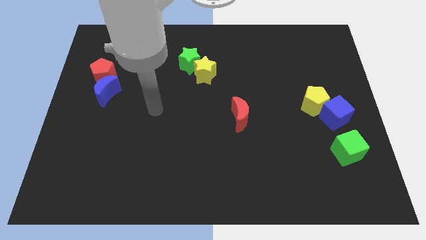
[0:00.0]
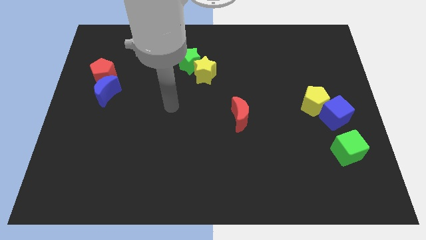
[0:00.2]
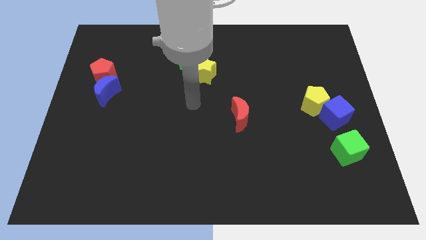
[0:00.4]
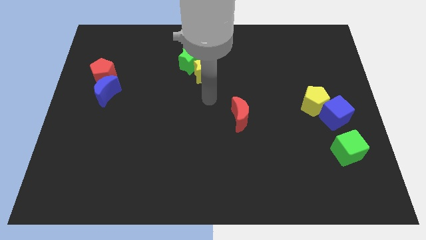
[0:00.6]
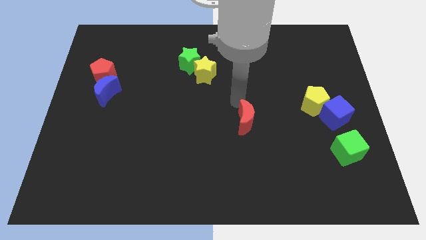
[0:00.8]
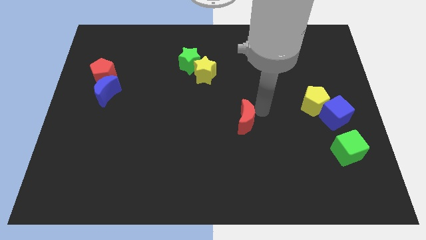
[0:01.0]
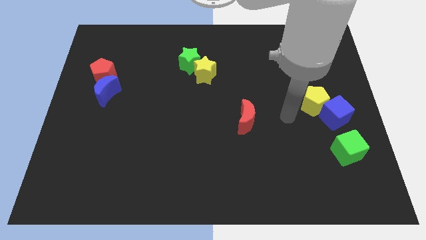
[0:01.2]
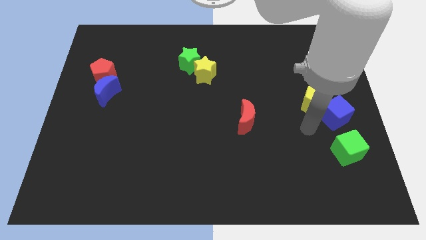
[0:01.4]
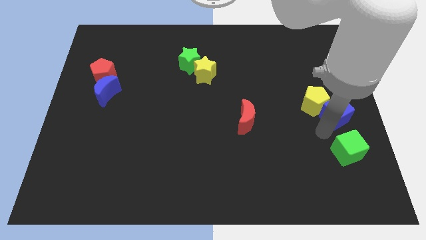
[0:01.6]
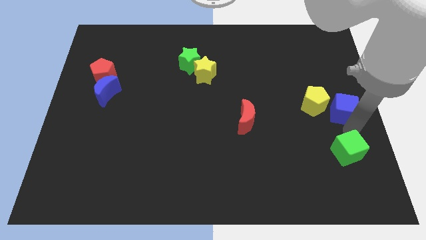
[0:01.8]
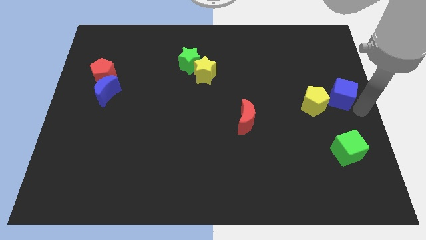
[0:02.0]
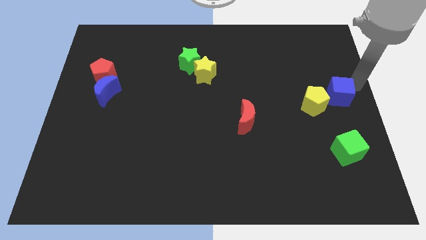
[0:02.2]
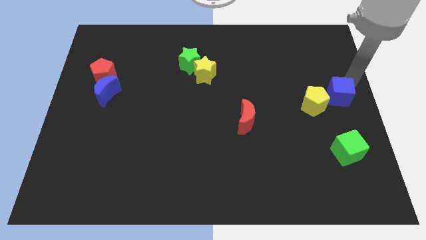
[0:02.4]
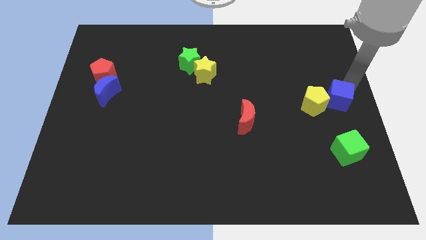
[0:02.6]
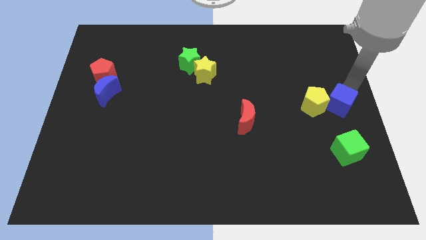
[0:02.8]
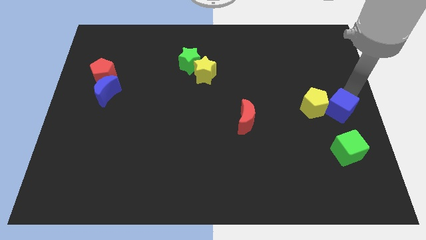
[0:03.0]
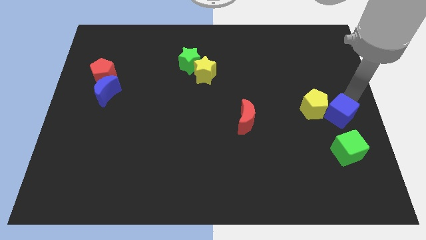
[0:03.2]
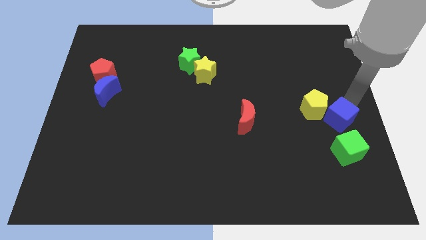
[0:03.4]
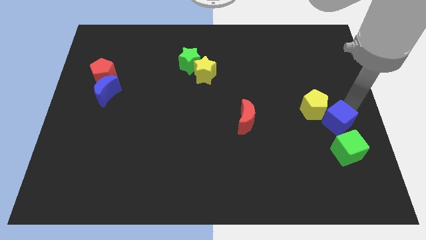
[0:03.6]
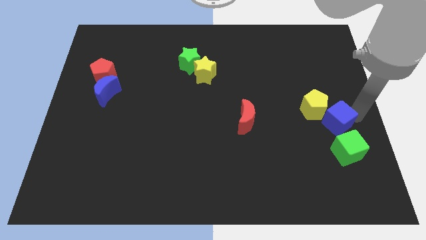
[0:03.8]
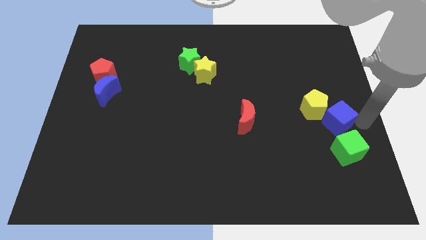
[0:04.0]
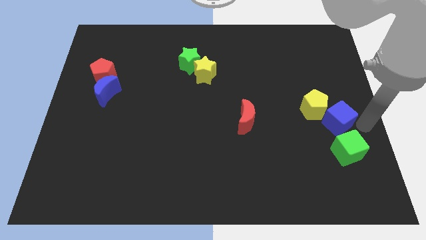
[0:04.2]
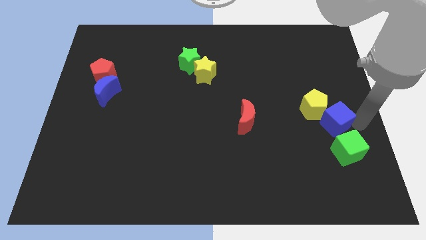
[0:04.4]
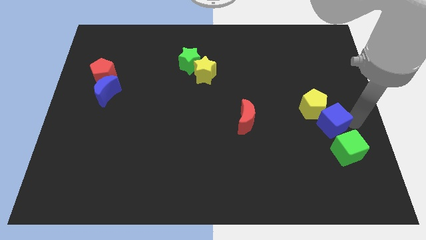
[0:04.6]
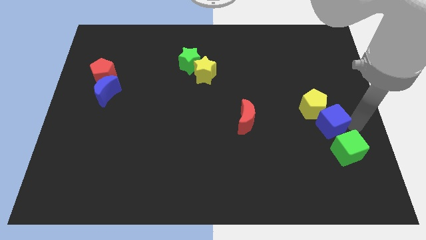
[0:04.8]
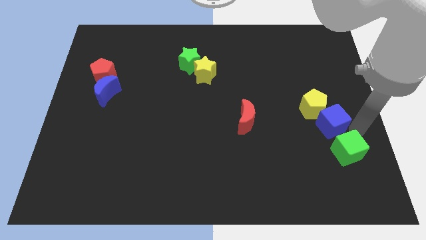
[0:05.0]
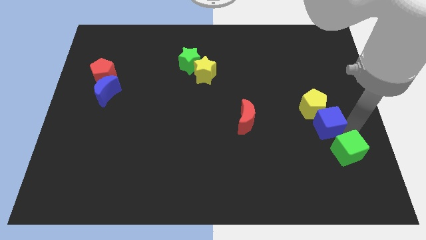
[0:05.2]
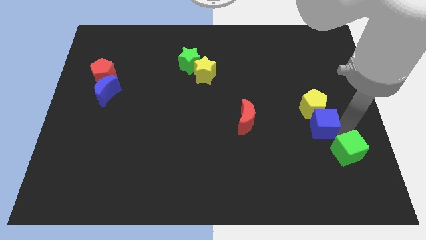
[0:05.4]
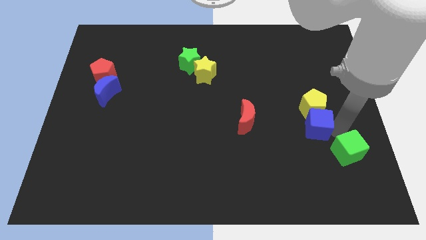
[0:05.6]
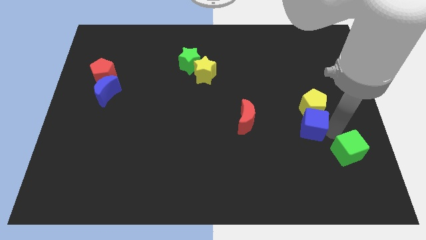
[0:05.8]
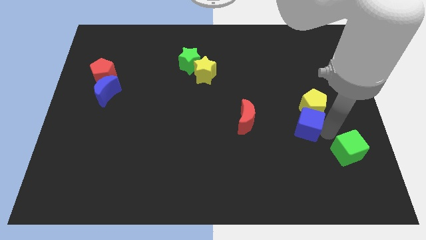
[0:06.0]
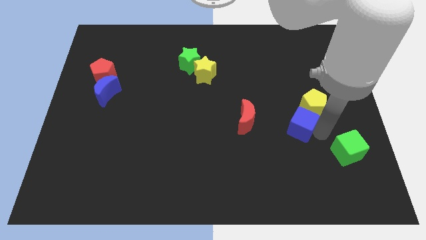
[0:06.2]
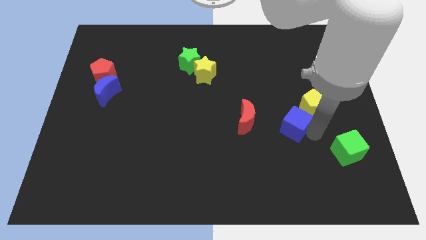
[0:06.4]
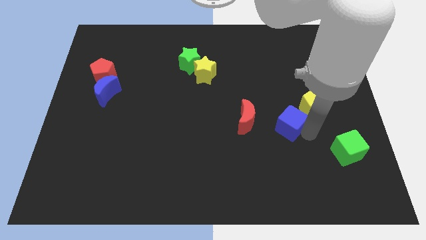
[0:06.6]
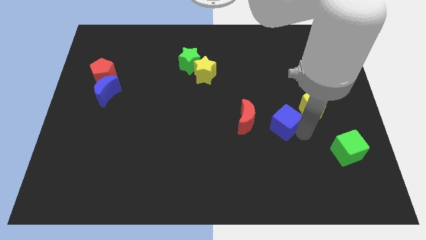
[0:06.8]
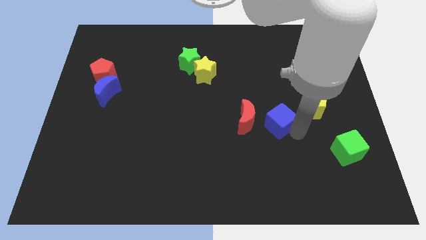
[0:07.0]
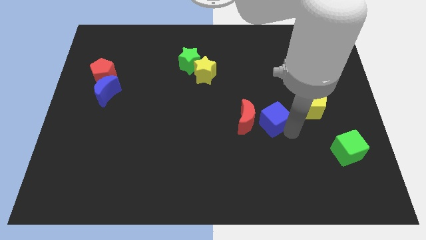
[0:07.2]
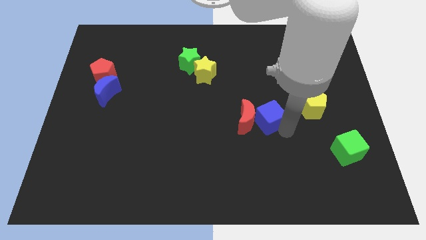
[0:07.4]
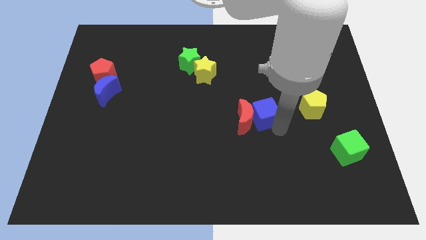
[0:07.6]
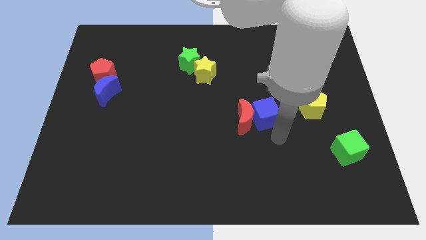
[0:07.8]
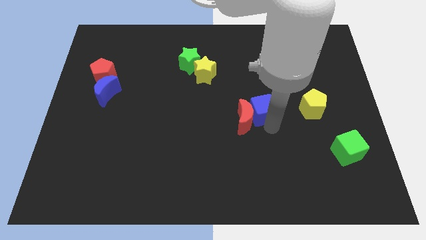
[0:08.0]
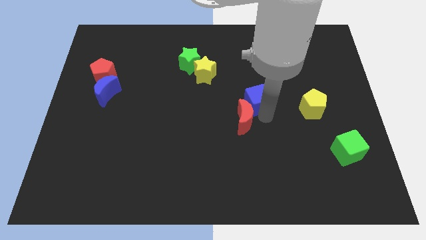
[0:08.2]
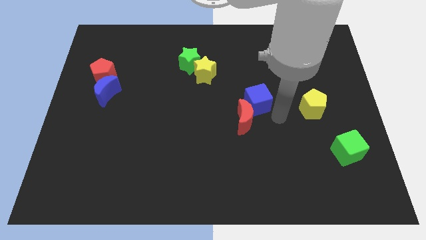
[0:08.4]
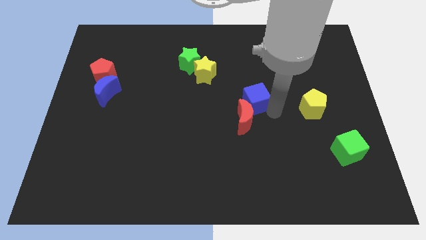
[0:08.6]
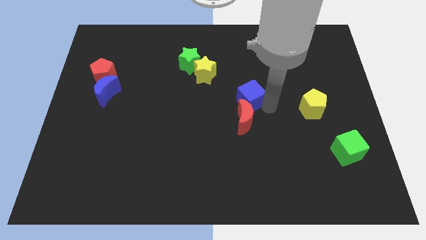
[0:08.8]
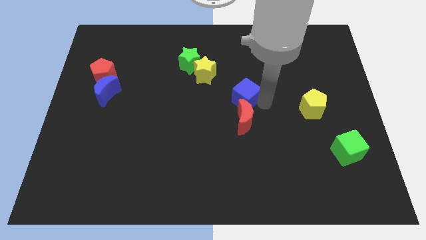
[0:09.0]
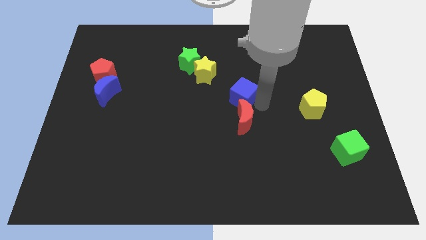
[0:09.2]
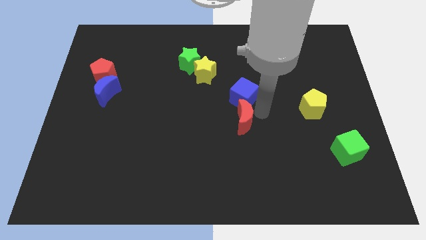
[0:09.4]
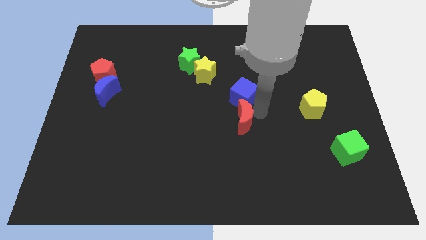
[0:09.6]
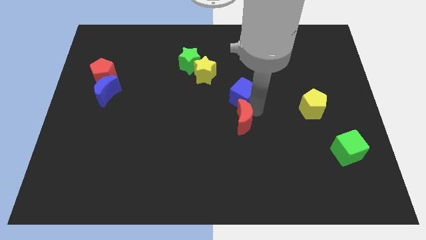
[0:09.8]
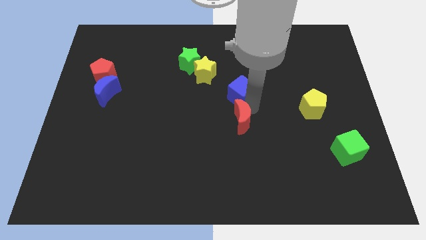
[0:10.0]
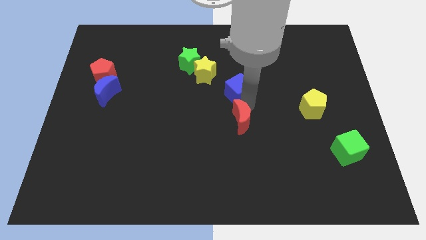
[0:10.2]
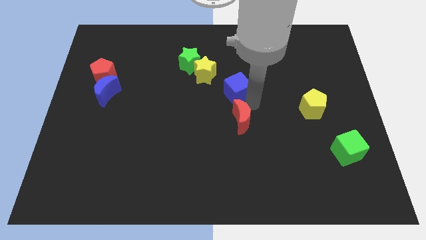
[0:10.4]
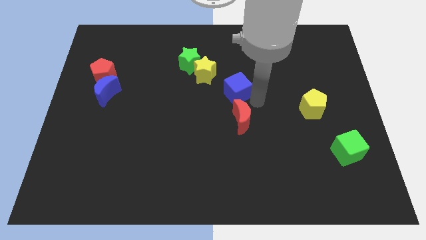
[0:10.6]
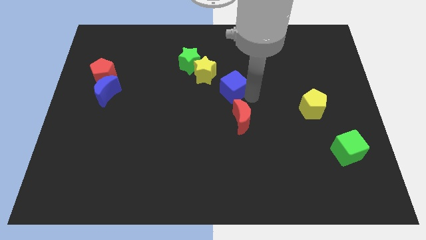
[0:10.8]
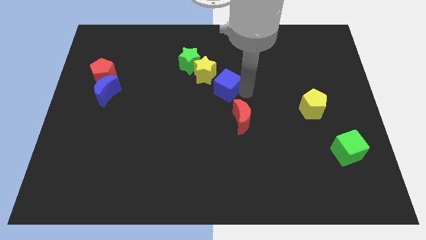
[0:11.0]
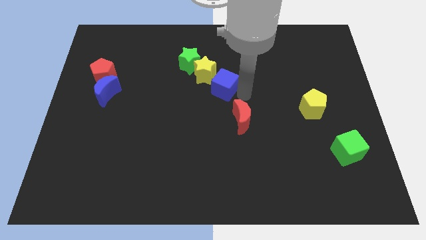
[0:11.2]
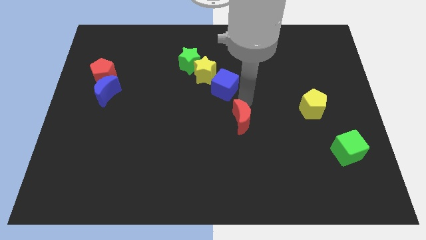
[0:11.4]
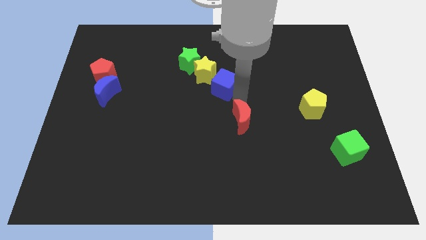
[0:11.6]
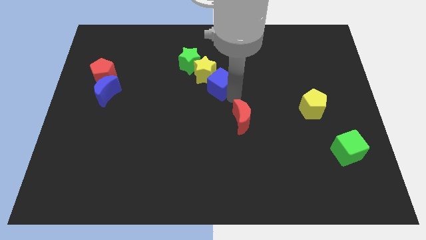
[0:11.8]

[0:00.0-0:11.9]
slide the blue cube close to the yellow star

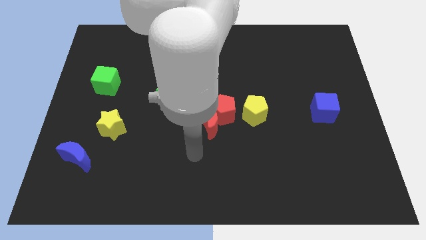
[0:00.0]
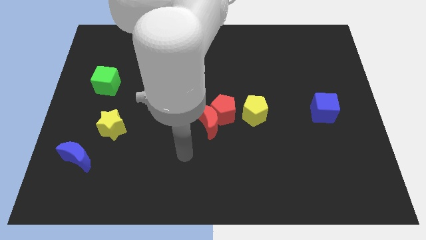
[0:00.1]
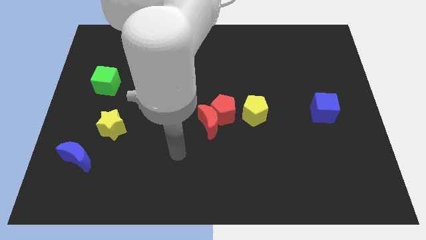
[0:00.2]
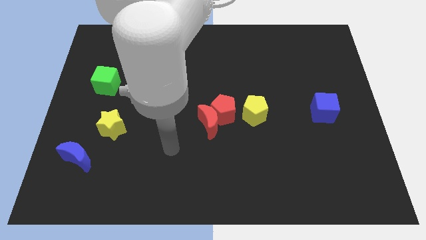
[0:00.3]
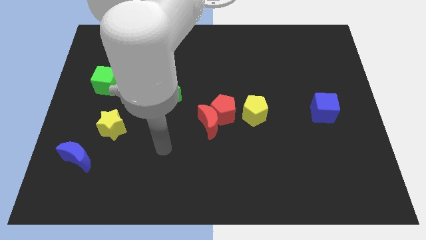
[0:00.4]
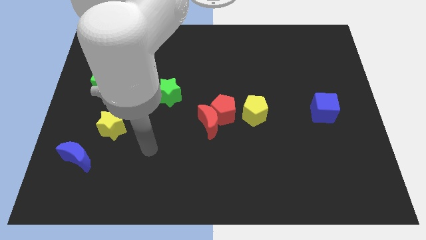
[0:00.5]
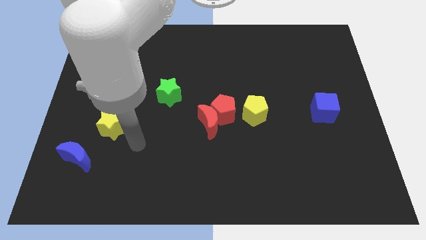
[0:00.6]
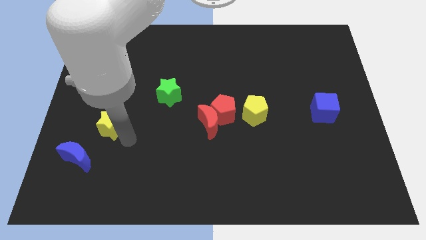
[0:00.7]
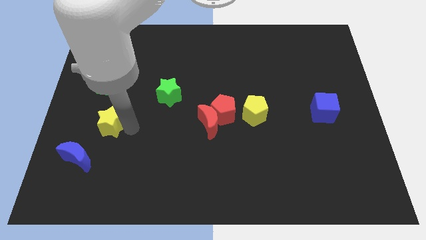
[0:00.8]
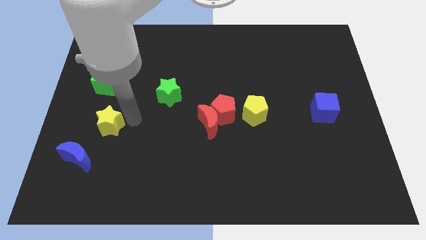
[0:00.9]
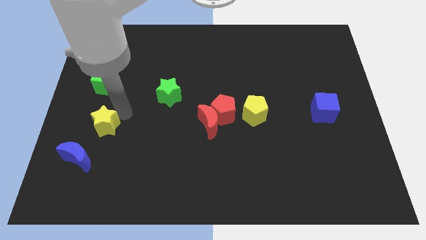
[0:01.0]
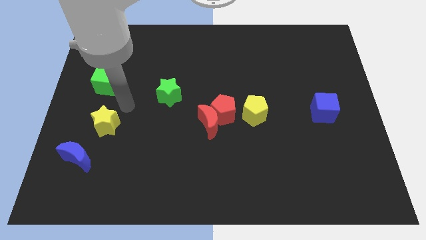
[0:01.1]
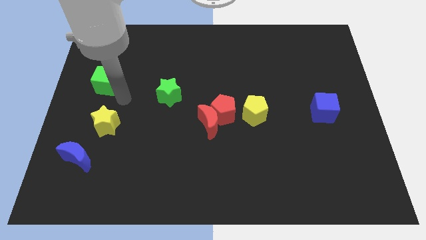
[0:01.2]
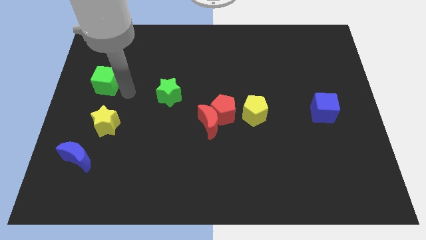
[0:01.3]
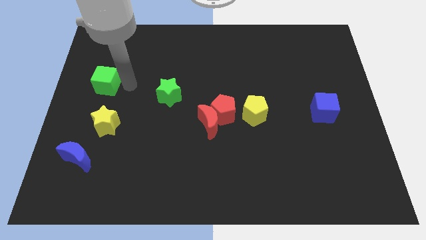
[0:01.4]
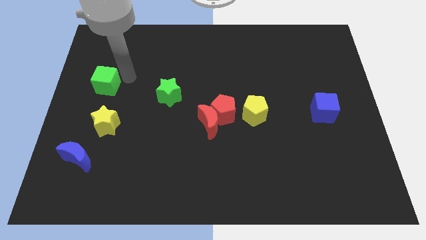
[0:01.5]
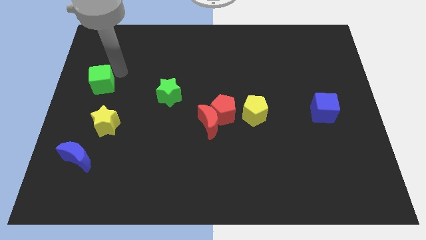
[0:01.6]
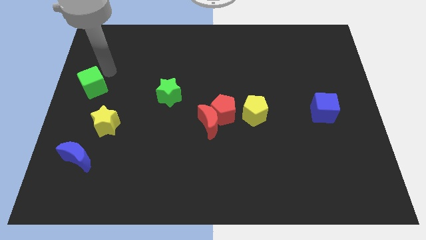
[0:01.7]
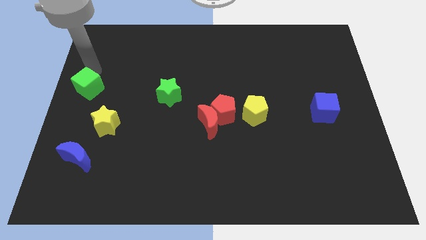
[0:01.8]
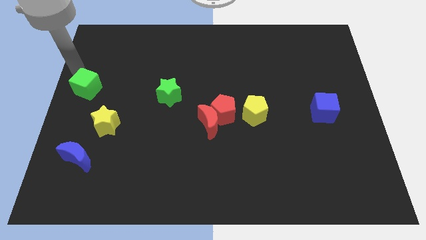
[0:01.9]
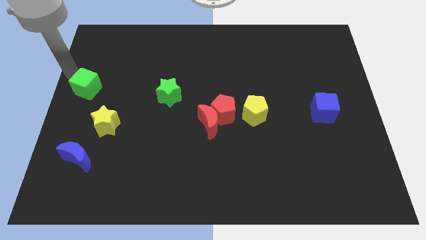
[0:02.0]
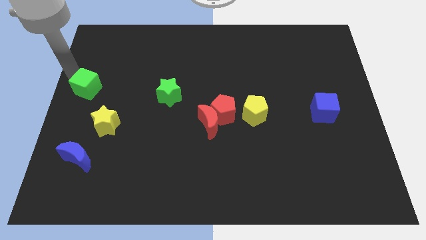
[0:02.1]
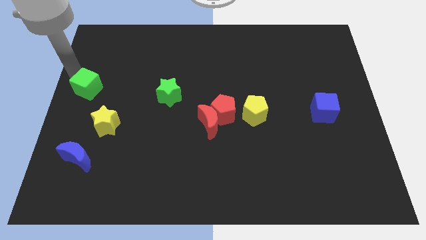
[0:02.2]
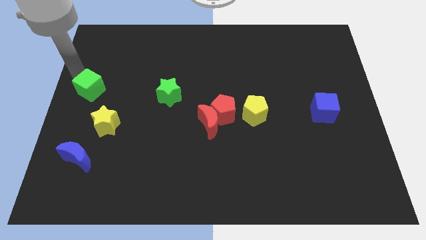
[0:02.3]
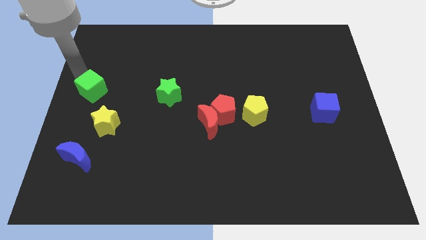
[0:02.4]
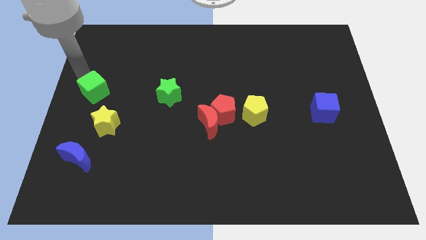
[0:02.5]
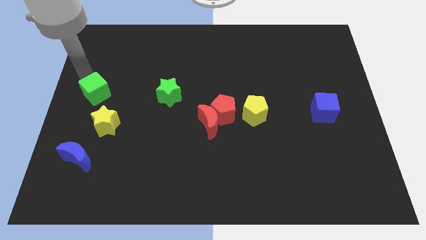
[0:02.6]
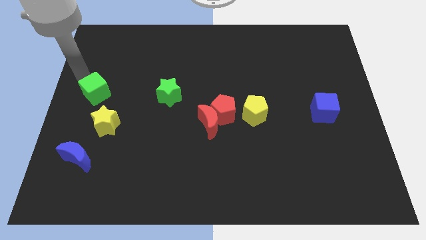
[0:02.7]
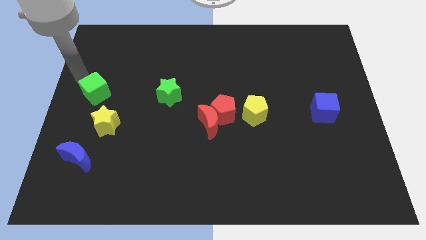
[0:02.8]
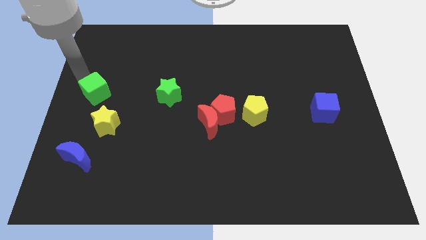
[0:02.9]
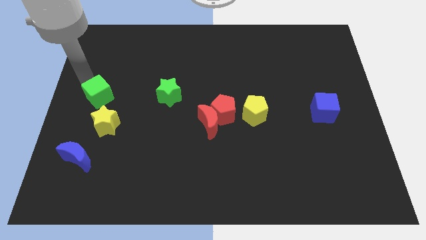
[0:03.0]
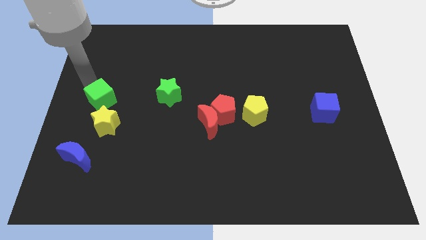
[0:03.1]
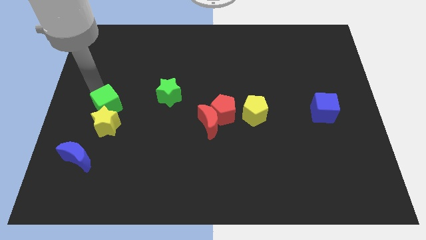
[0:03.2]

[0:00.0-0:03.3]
slide the green cube to the yellow star
